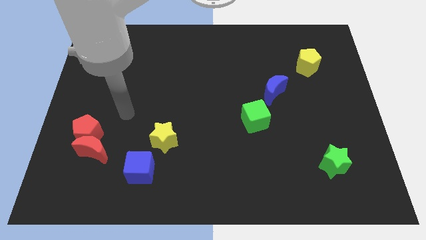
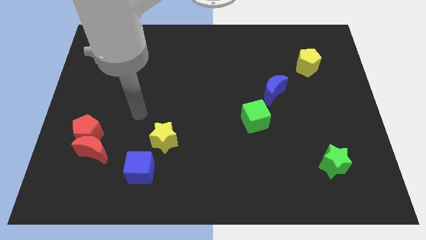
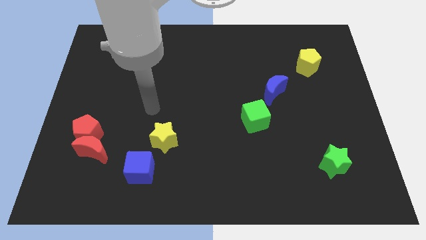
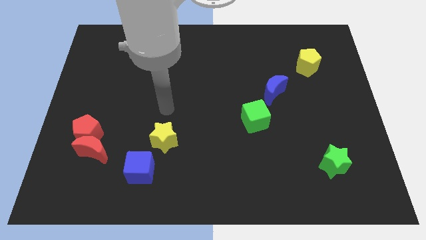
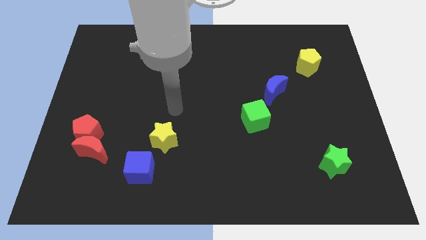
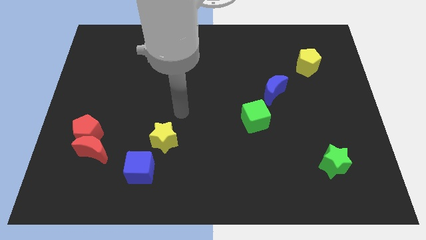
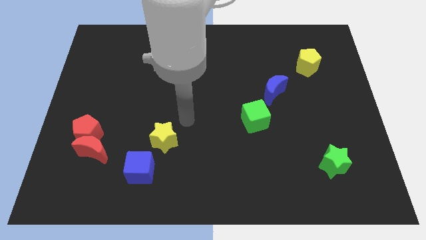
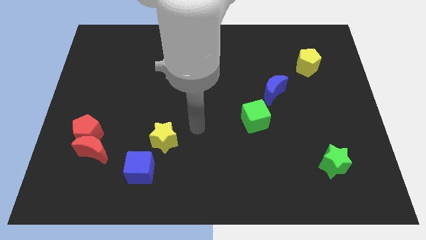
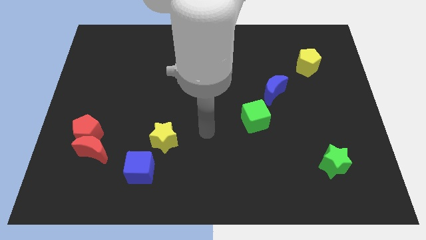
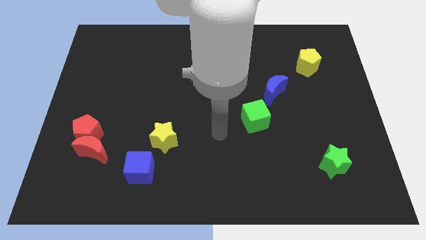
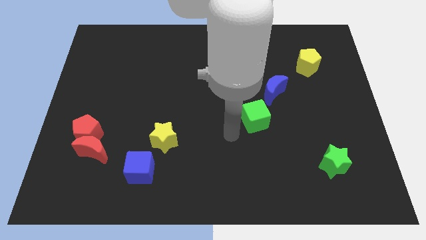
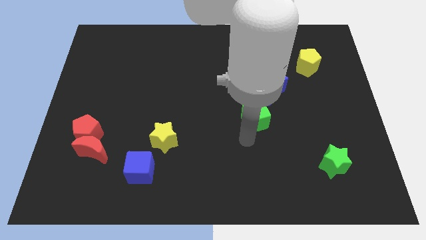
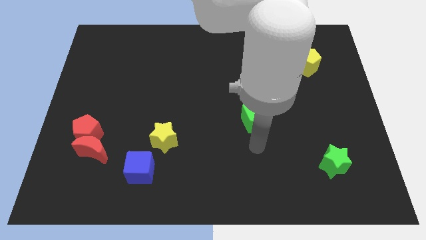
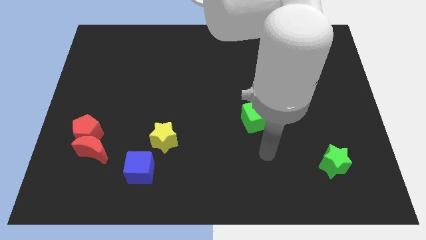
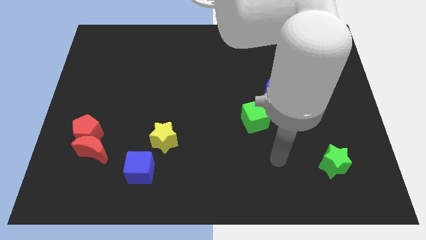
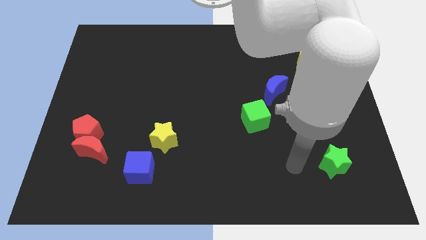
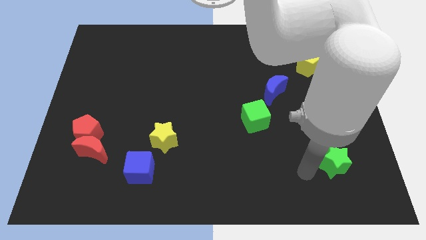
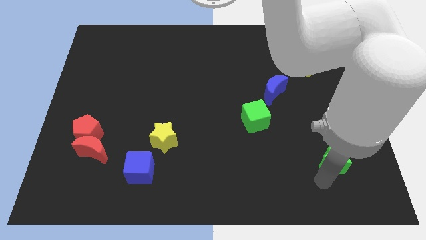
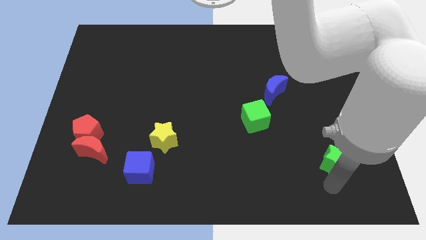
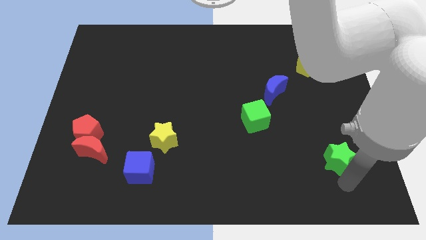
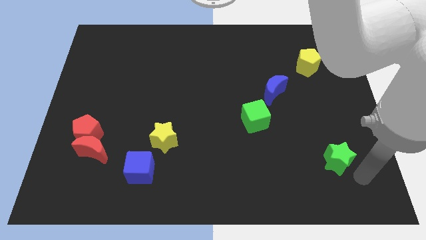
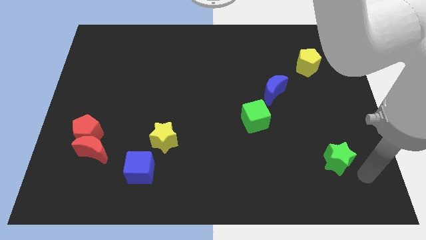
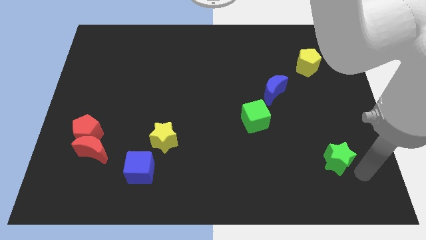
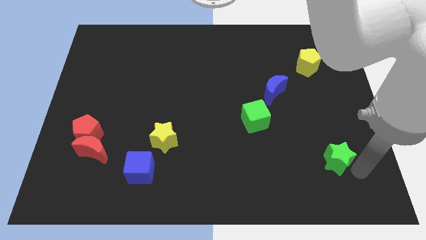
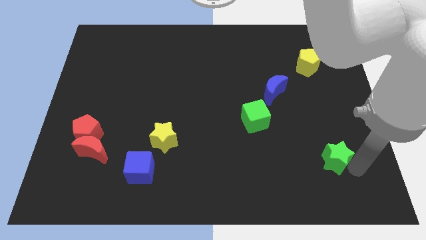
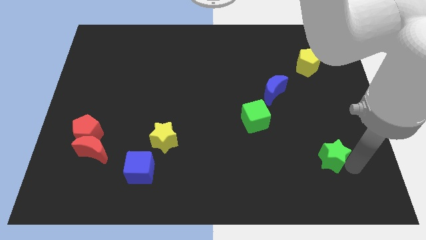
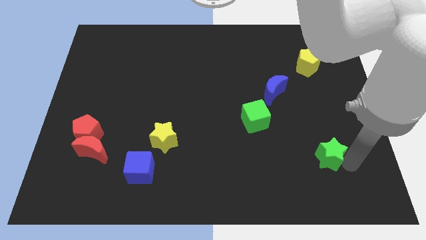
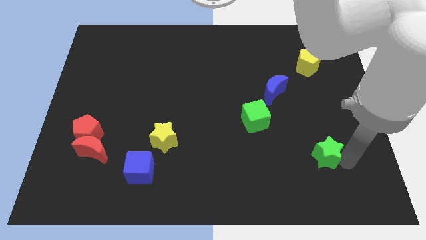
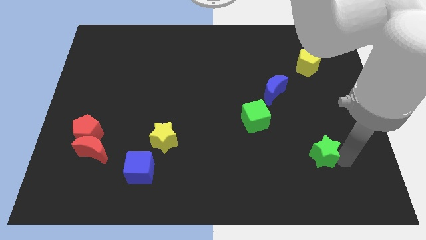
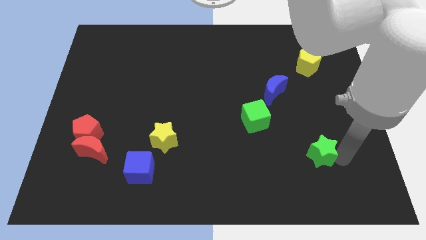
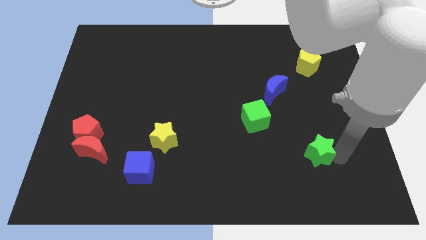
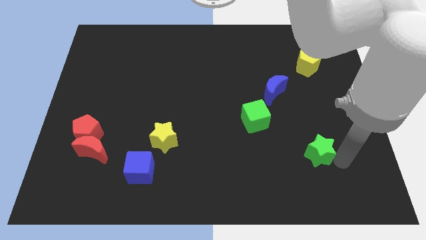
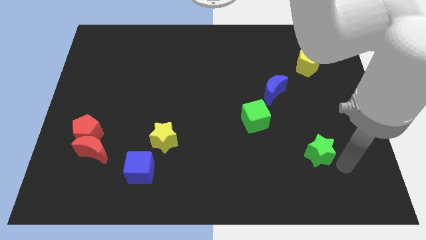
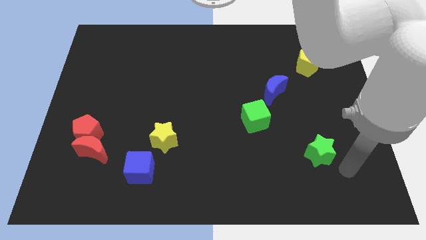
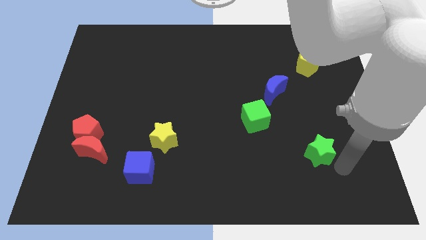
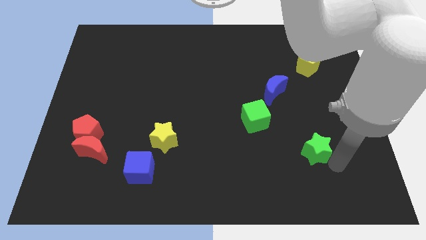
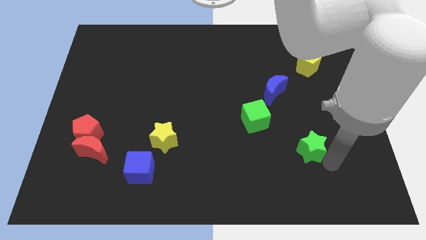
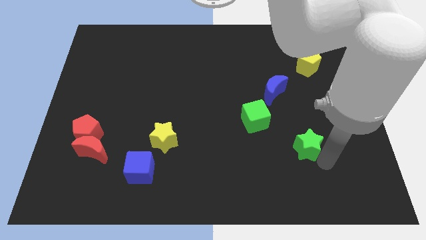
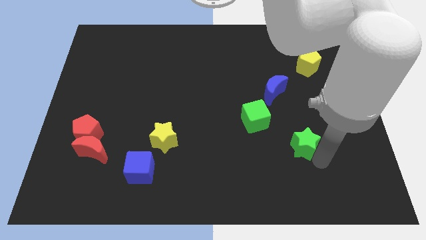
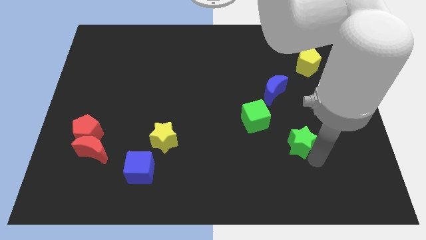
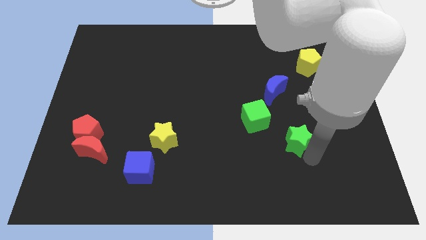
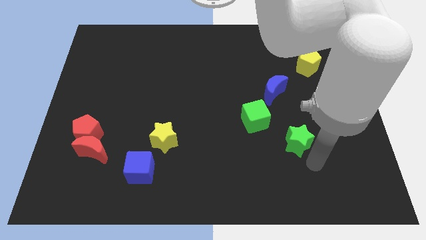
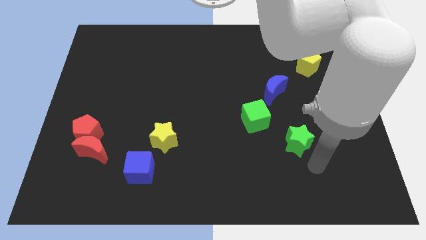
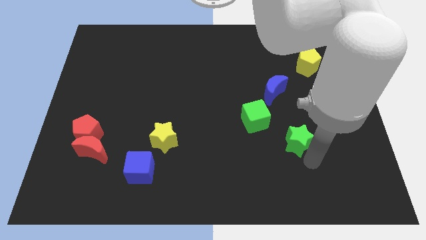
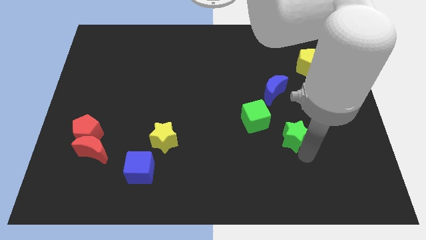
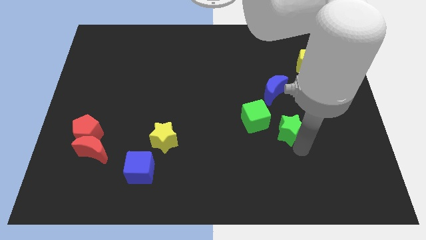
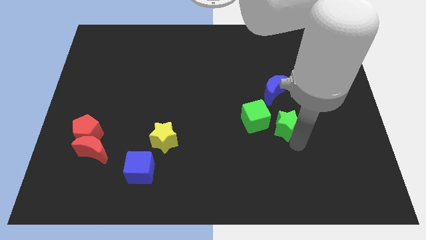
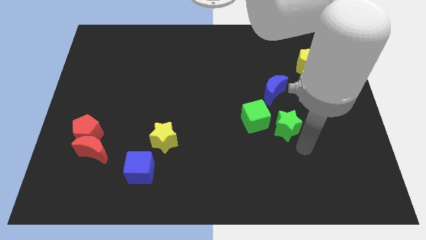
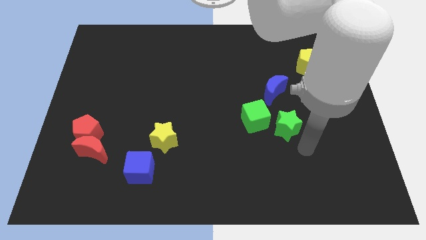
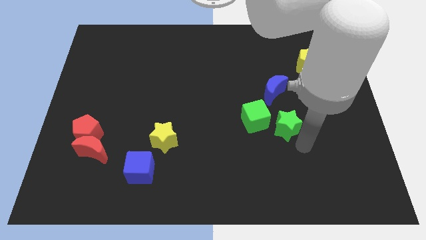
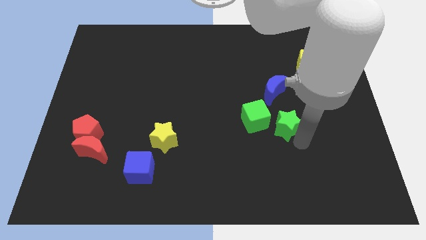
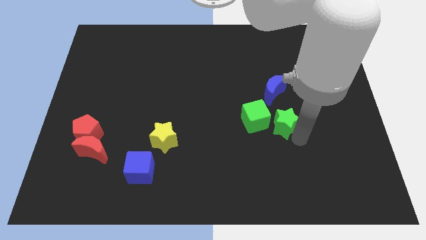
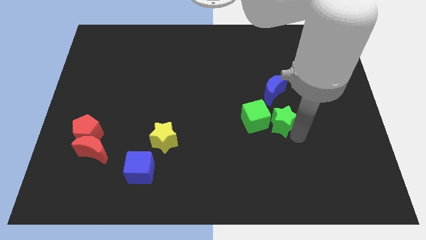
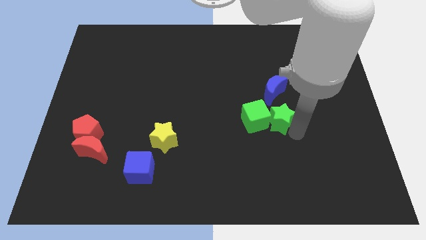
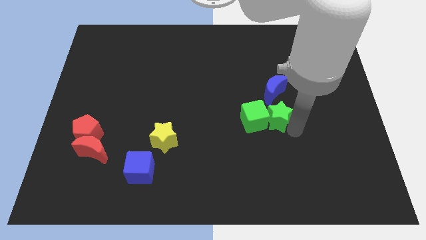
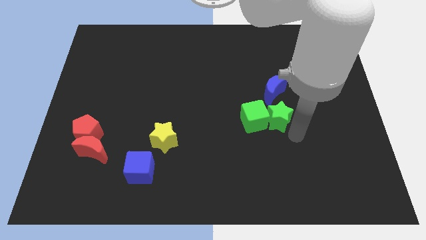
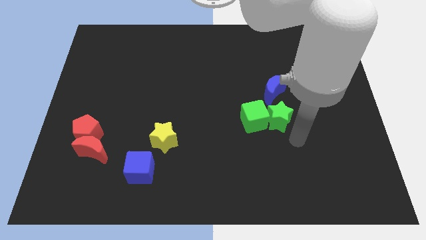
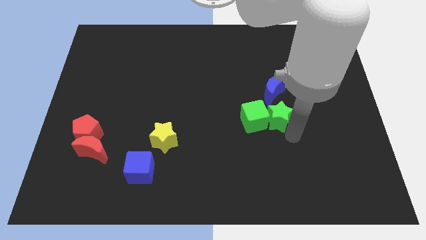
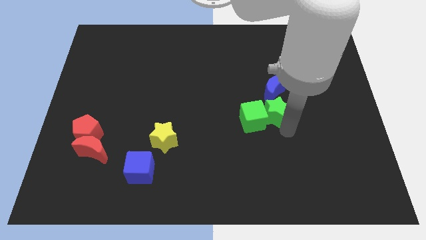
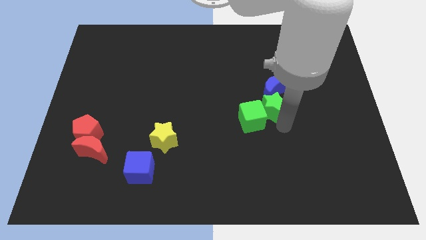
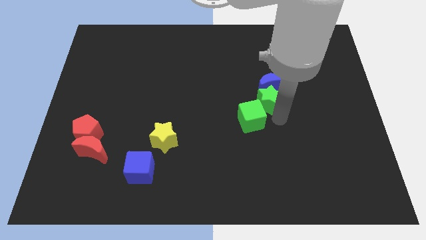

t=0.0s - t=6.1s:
move the green star upwards and to the left

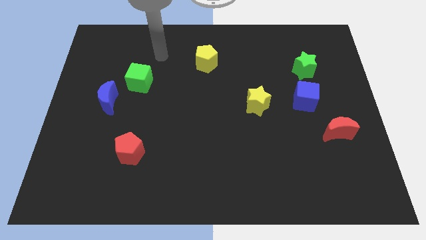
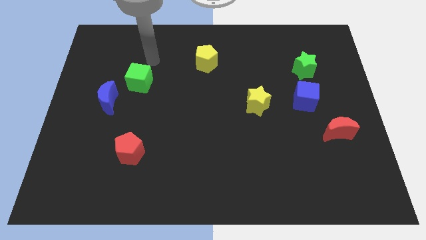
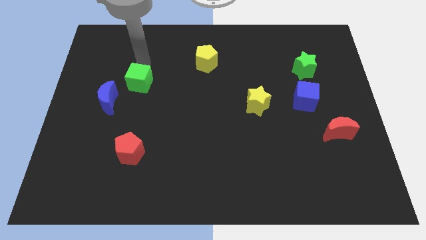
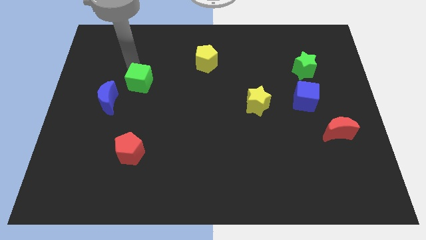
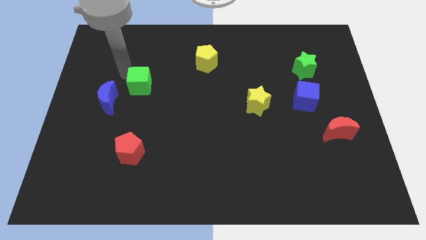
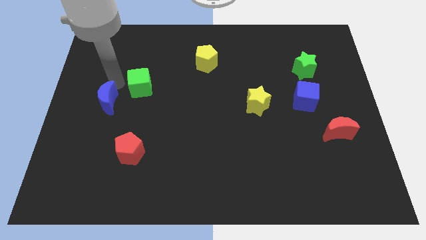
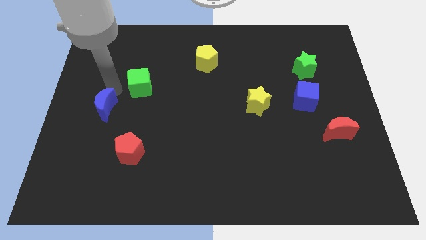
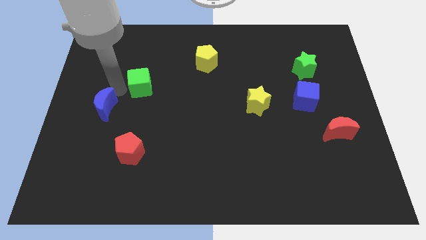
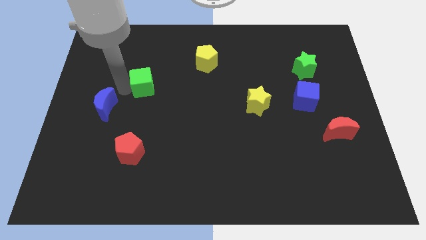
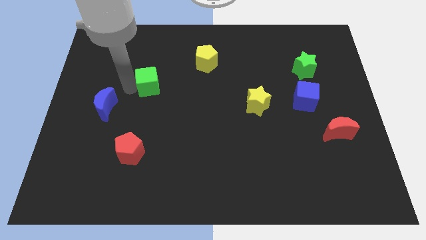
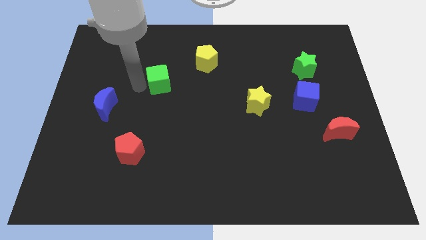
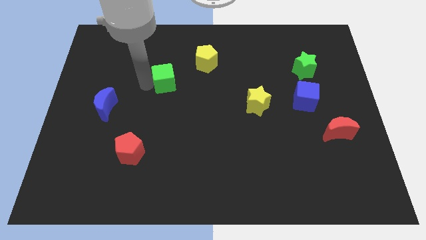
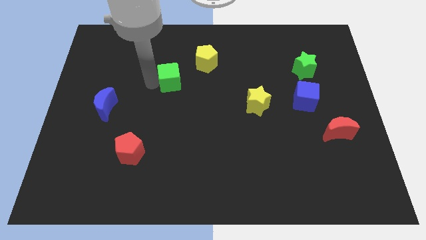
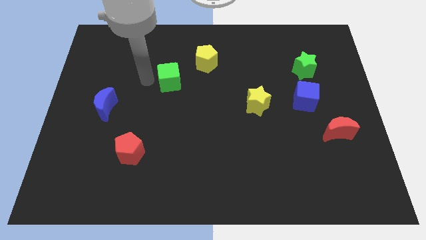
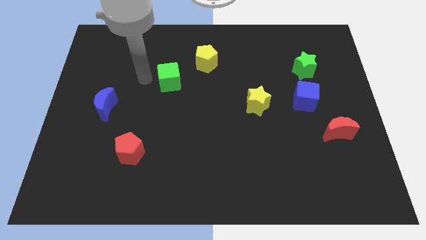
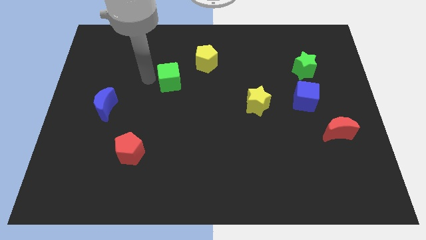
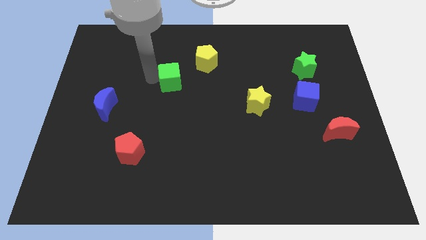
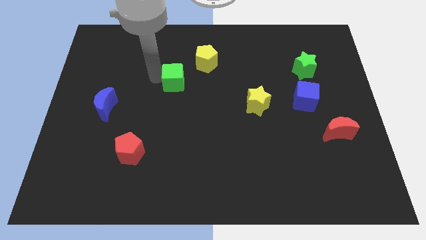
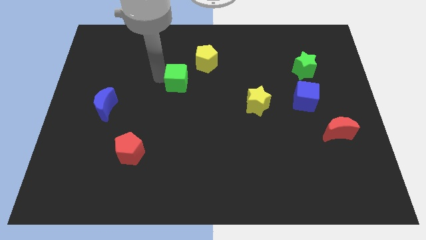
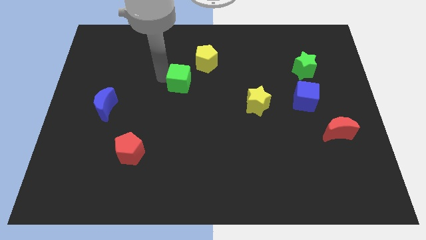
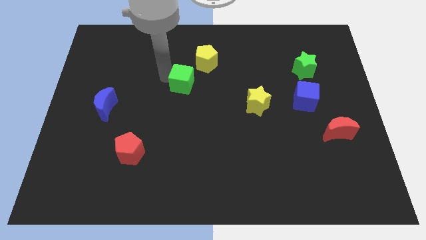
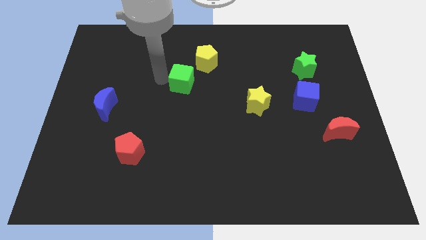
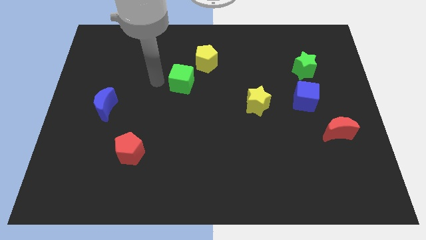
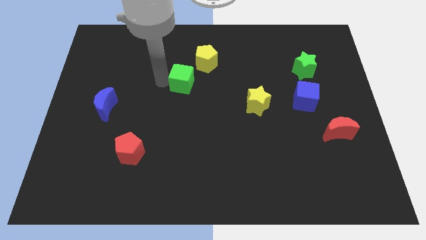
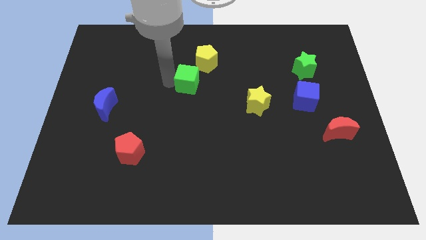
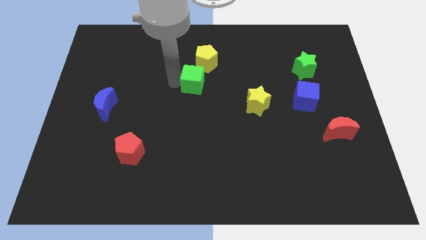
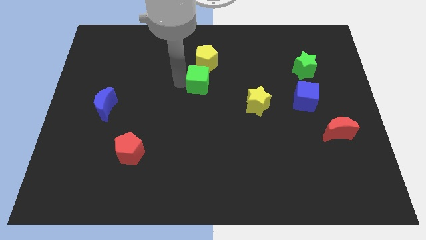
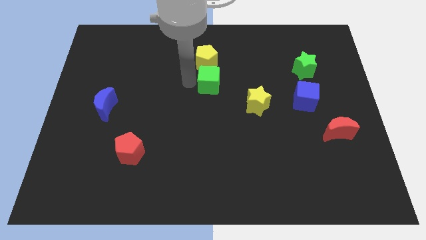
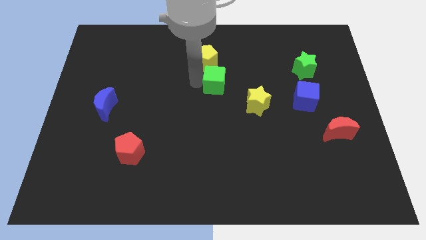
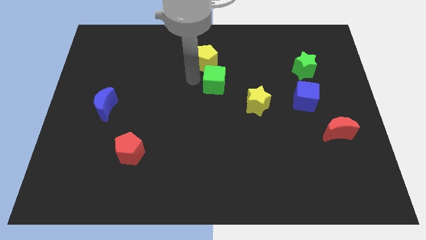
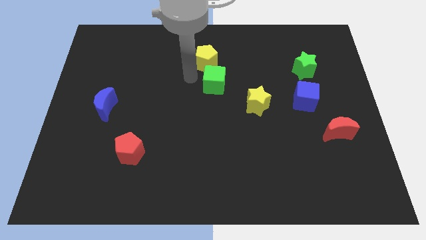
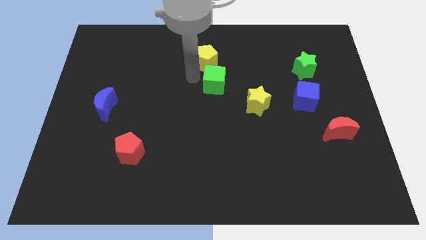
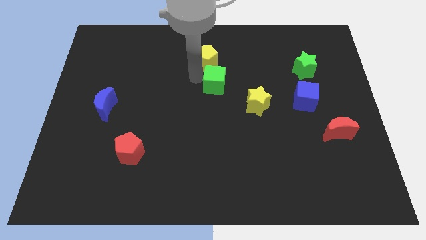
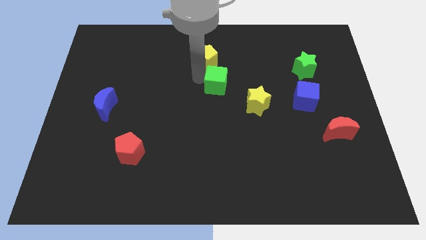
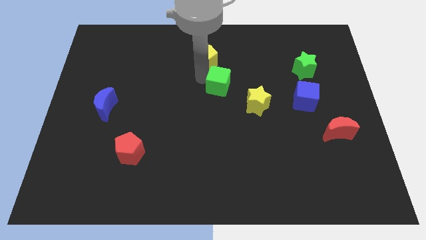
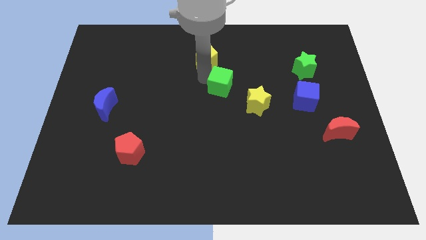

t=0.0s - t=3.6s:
slide the green cube right
